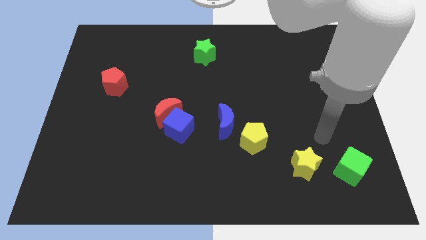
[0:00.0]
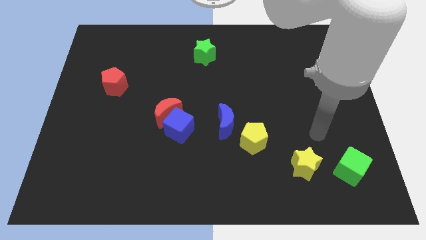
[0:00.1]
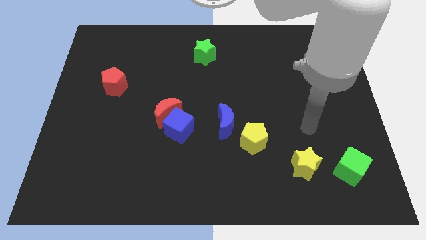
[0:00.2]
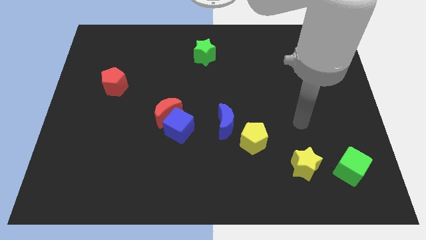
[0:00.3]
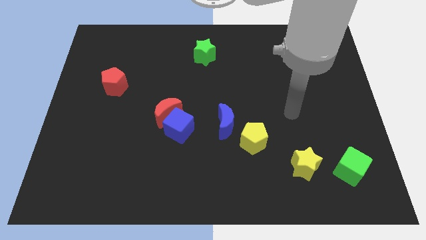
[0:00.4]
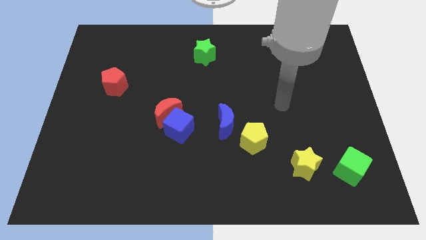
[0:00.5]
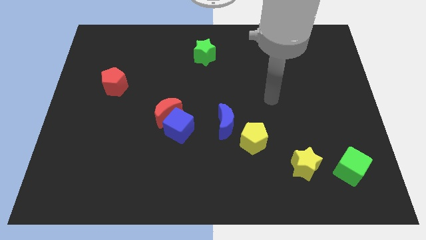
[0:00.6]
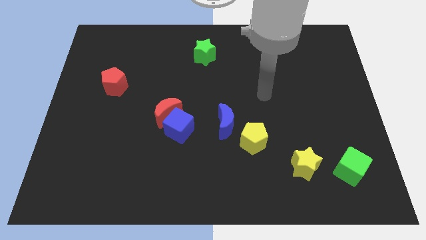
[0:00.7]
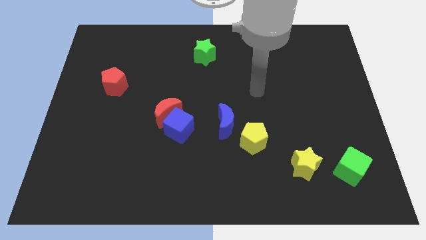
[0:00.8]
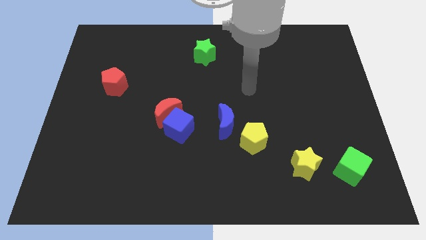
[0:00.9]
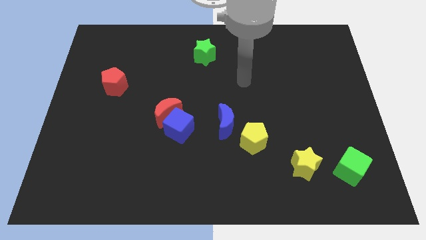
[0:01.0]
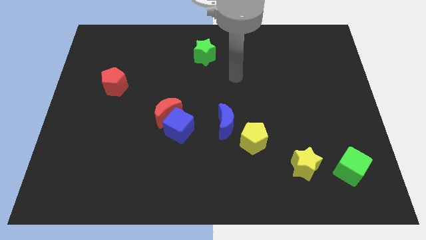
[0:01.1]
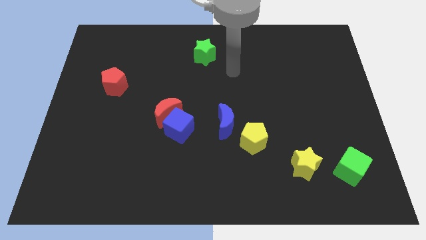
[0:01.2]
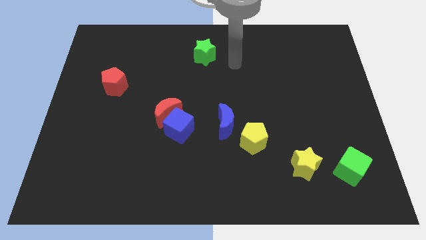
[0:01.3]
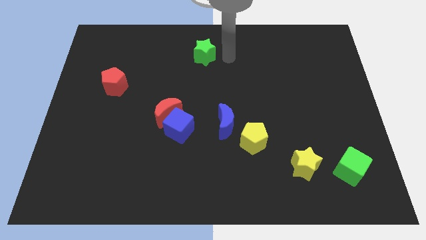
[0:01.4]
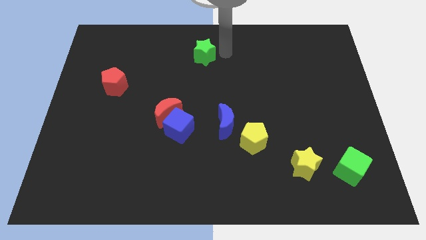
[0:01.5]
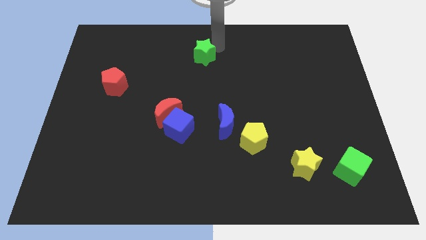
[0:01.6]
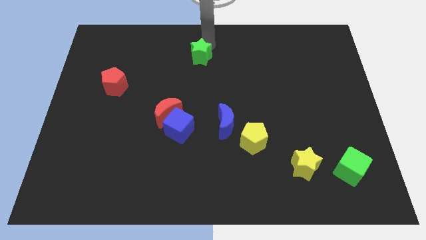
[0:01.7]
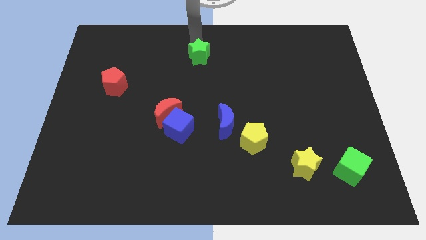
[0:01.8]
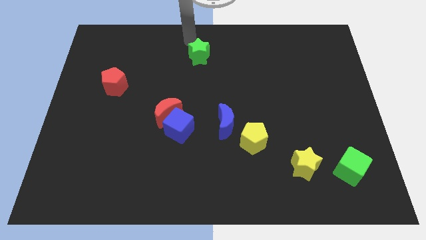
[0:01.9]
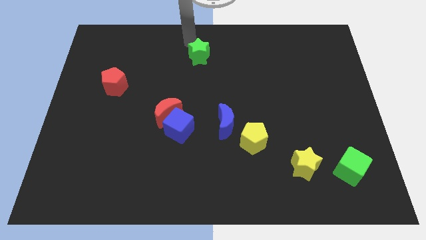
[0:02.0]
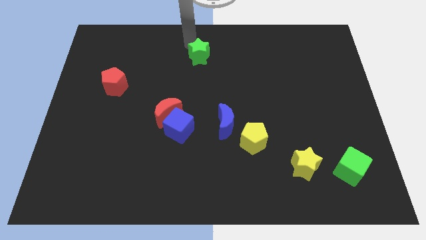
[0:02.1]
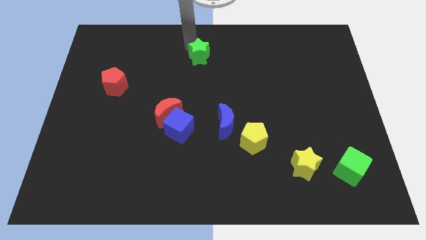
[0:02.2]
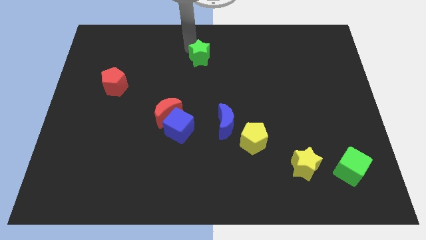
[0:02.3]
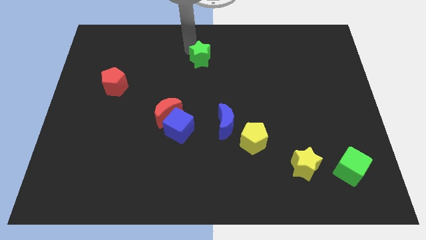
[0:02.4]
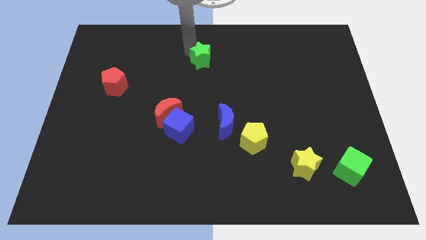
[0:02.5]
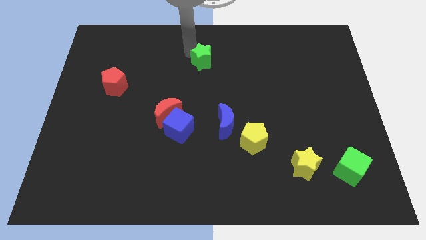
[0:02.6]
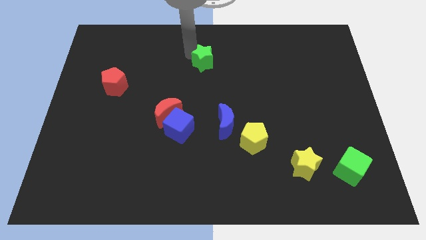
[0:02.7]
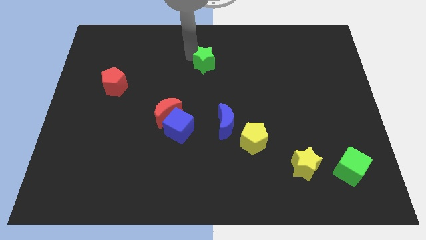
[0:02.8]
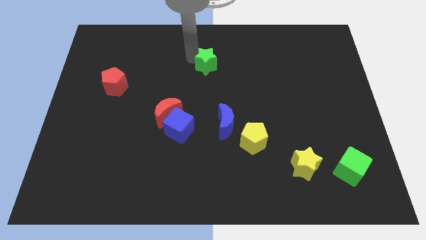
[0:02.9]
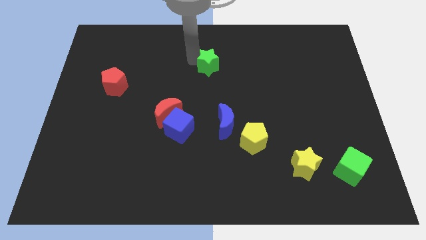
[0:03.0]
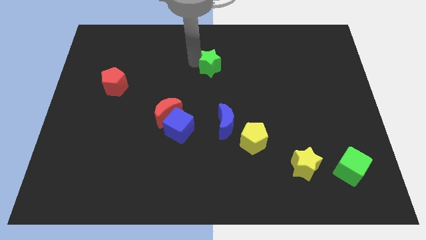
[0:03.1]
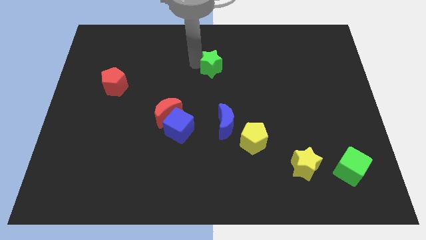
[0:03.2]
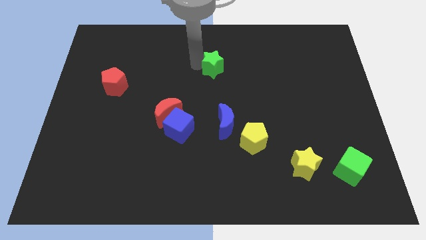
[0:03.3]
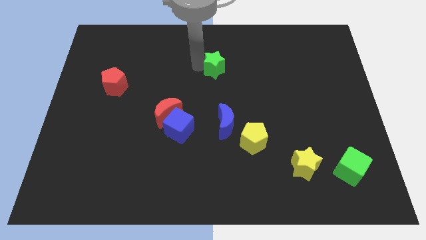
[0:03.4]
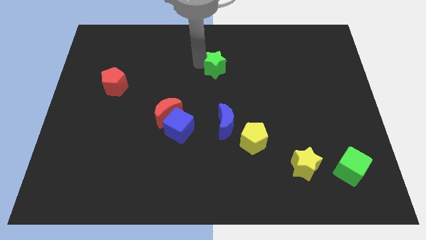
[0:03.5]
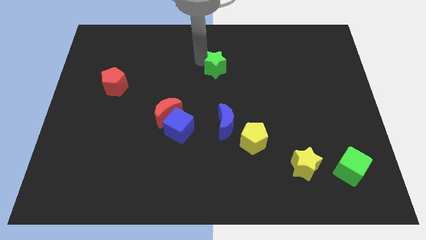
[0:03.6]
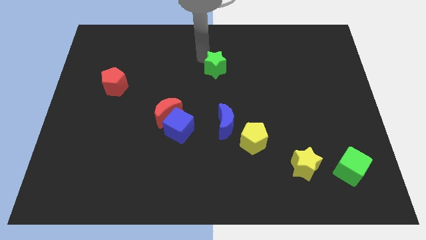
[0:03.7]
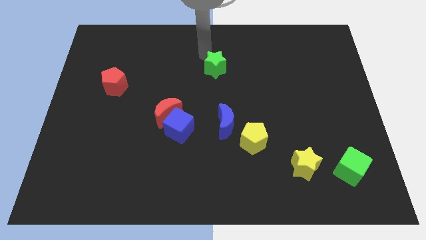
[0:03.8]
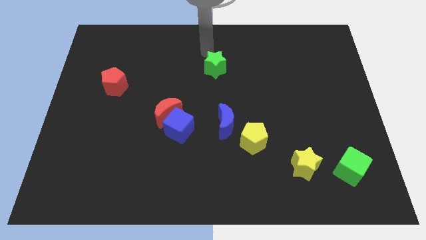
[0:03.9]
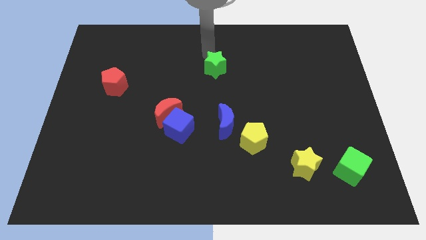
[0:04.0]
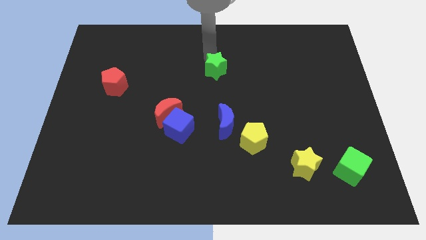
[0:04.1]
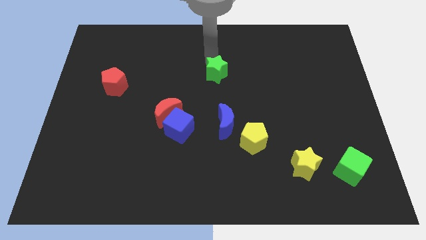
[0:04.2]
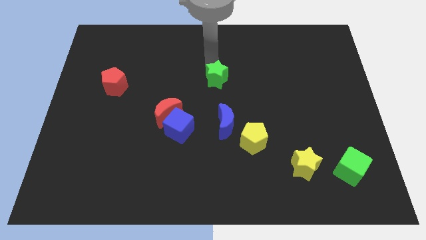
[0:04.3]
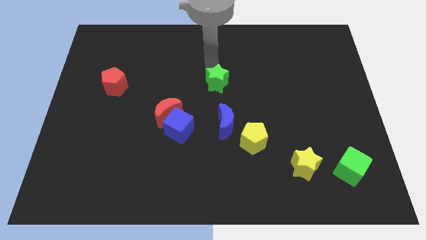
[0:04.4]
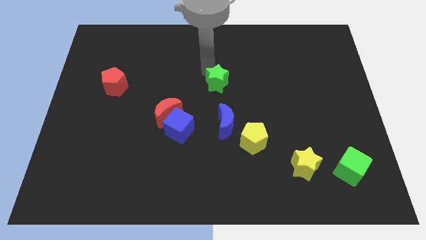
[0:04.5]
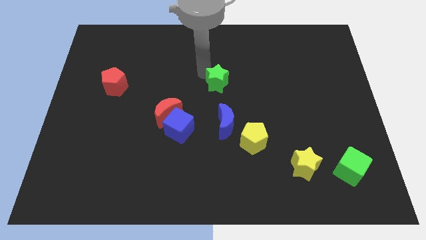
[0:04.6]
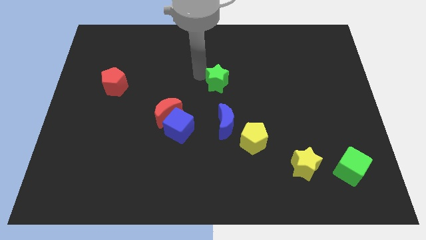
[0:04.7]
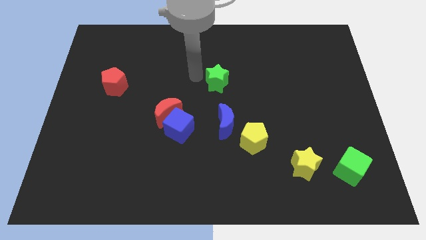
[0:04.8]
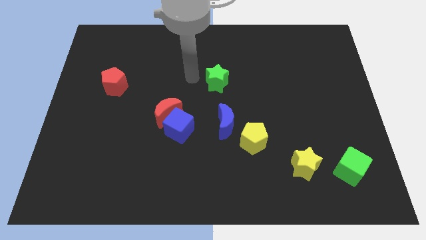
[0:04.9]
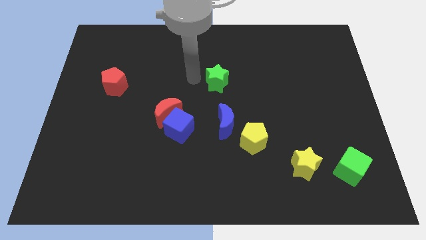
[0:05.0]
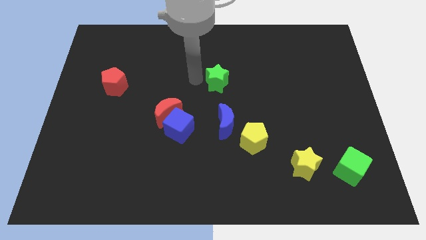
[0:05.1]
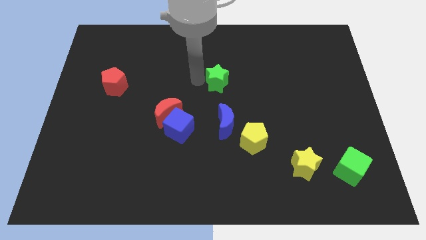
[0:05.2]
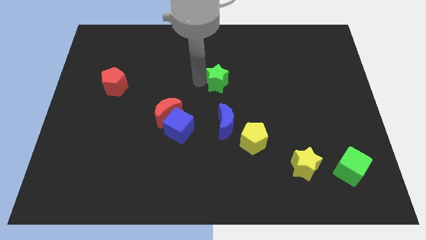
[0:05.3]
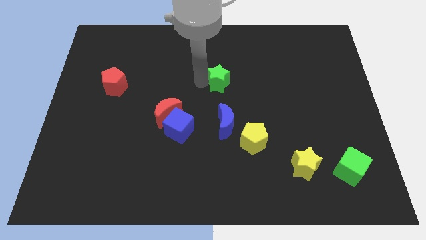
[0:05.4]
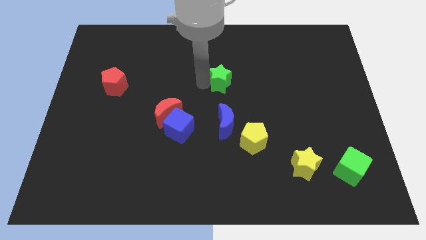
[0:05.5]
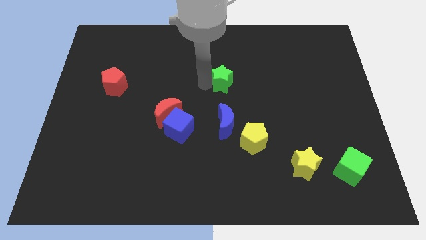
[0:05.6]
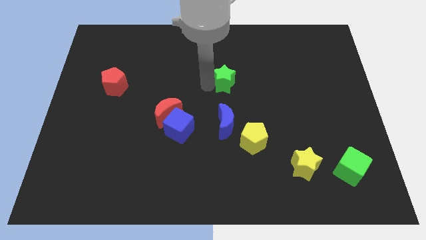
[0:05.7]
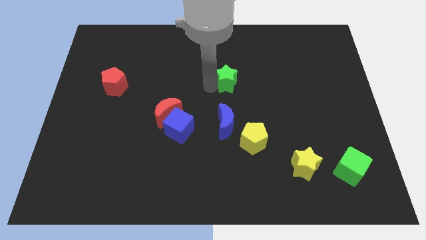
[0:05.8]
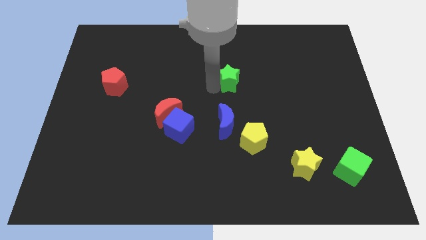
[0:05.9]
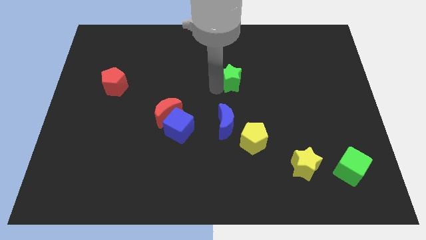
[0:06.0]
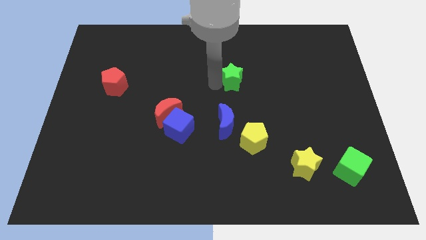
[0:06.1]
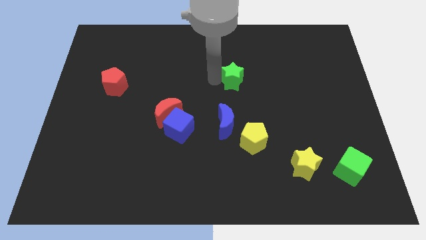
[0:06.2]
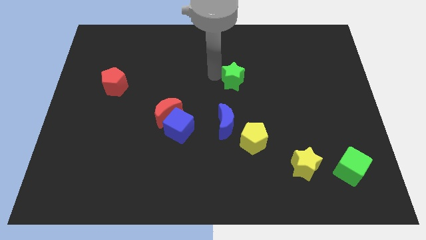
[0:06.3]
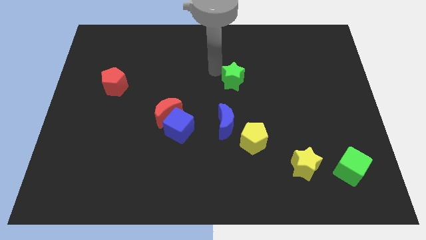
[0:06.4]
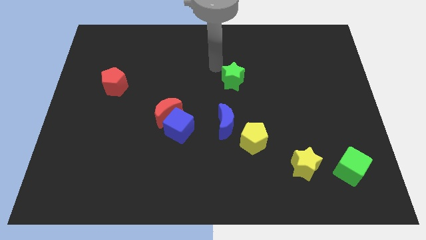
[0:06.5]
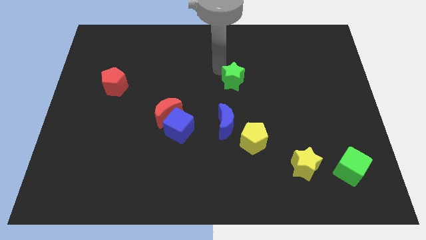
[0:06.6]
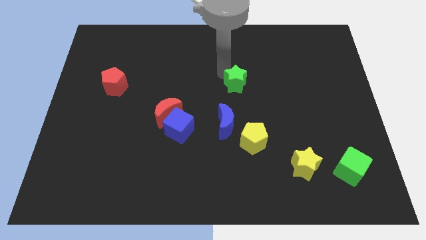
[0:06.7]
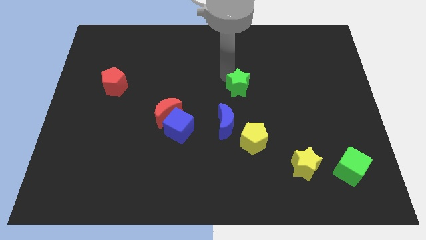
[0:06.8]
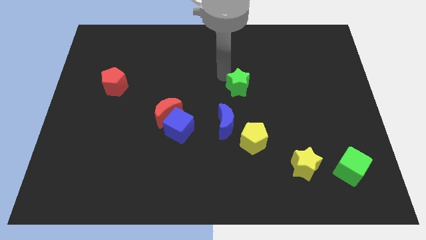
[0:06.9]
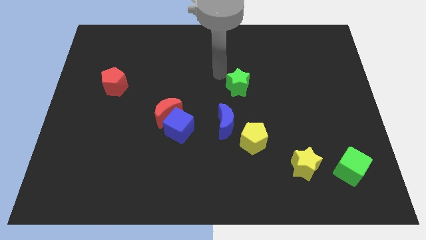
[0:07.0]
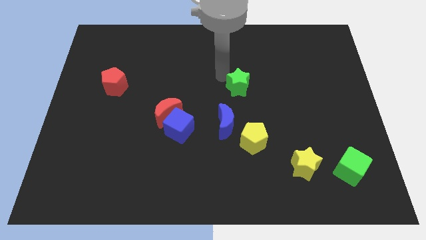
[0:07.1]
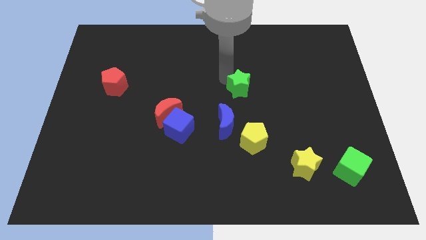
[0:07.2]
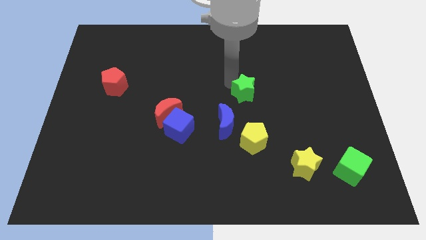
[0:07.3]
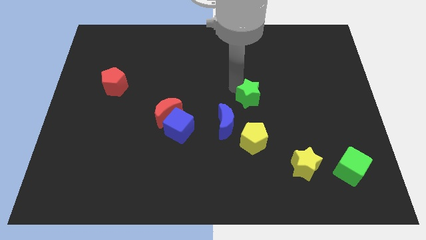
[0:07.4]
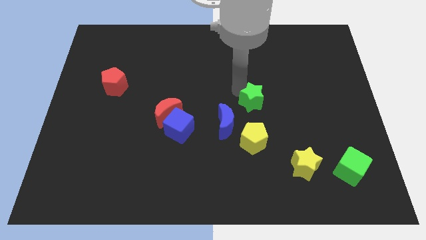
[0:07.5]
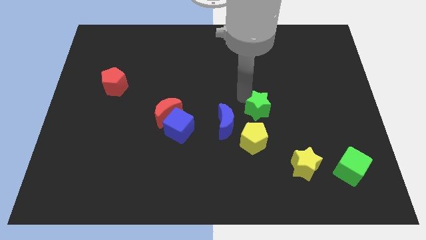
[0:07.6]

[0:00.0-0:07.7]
push the green star down and then to the right
